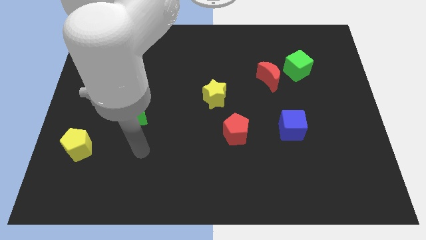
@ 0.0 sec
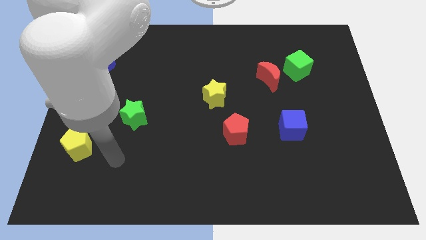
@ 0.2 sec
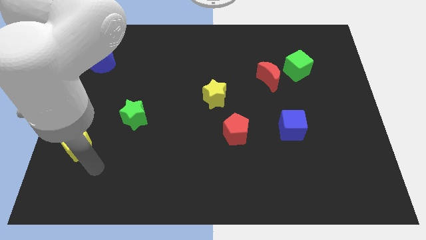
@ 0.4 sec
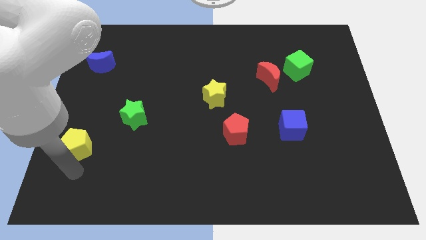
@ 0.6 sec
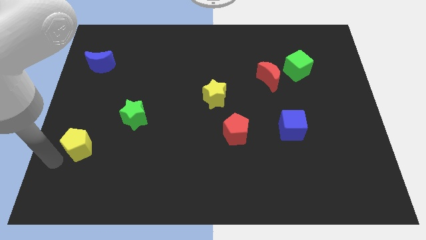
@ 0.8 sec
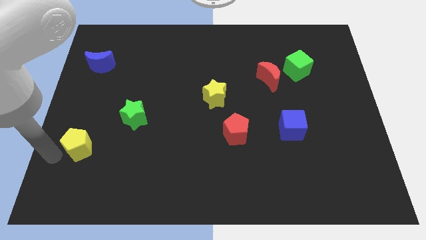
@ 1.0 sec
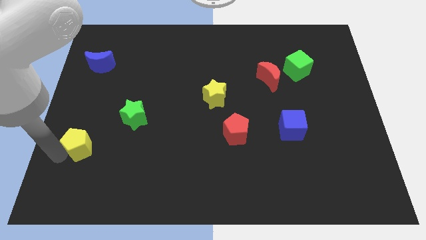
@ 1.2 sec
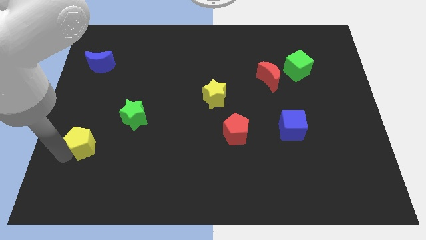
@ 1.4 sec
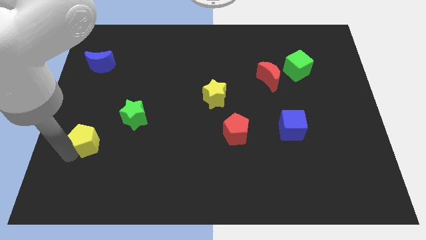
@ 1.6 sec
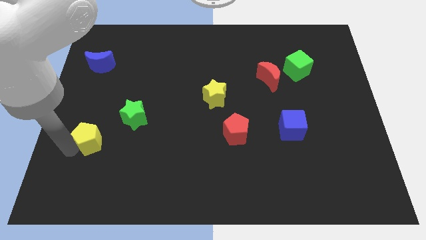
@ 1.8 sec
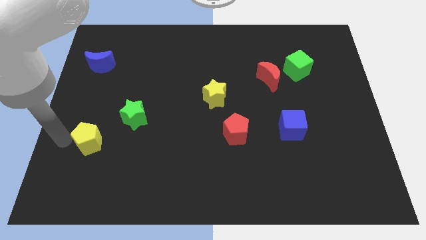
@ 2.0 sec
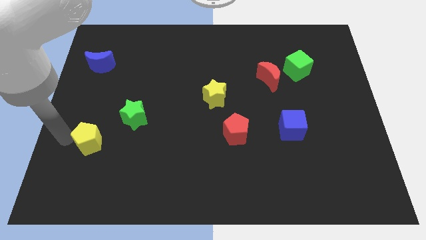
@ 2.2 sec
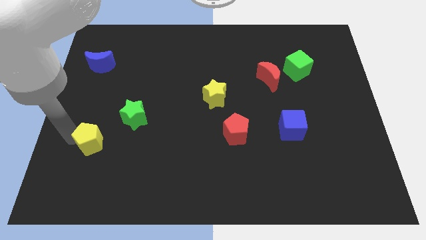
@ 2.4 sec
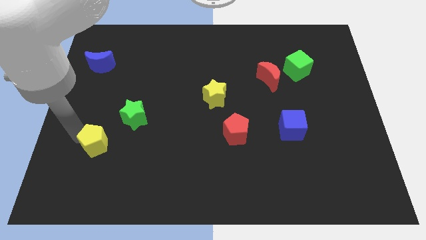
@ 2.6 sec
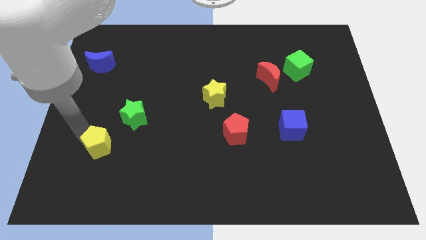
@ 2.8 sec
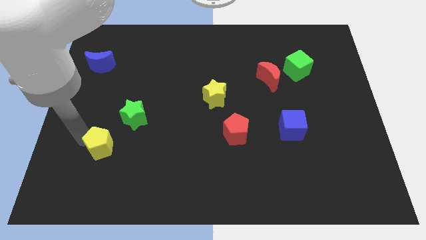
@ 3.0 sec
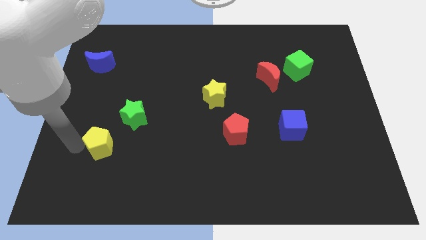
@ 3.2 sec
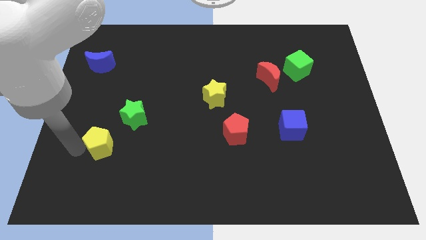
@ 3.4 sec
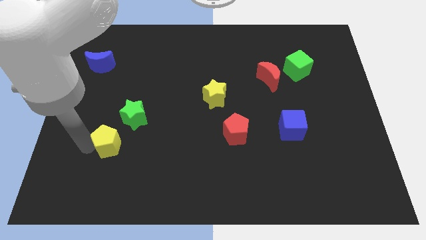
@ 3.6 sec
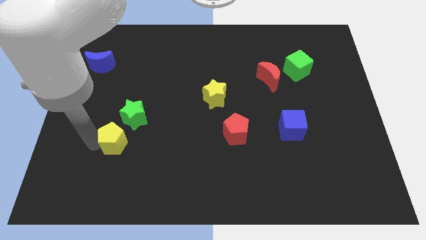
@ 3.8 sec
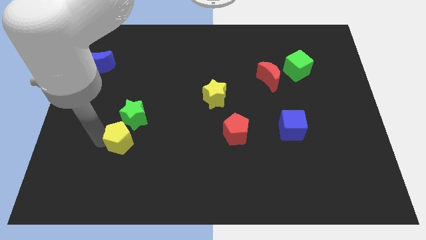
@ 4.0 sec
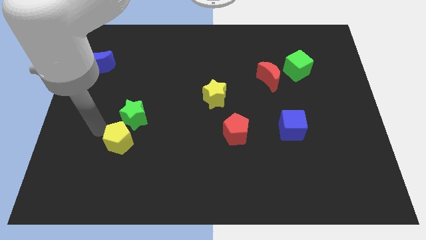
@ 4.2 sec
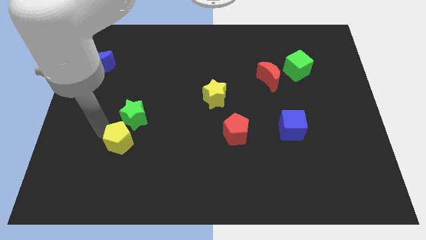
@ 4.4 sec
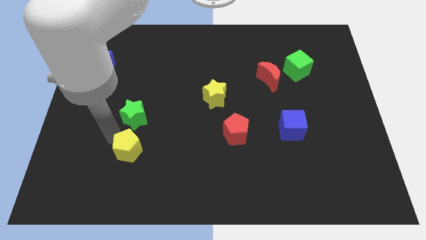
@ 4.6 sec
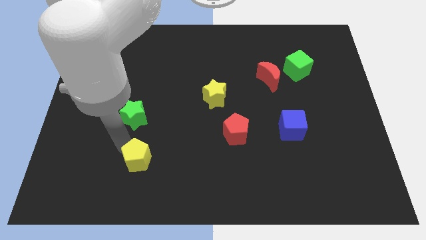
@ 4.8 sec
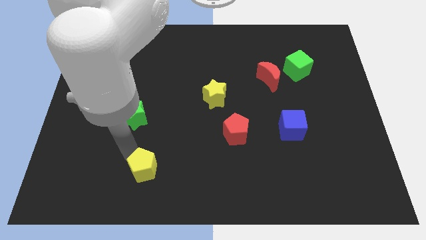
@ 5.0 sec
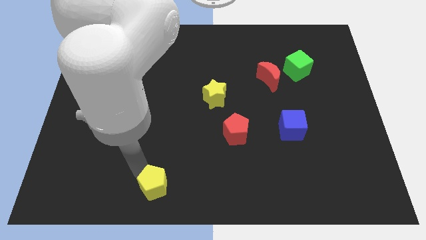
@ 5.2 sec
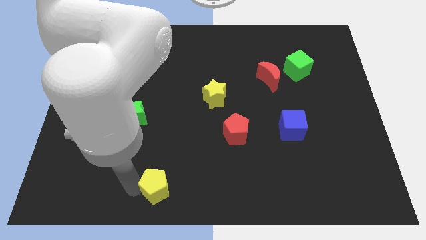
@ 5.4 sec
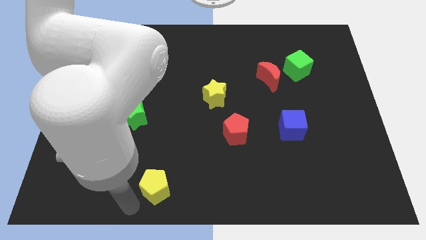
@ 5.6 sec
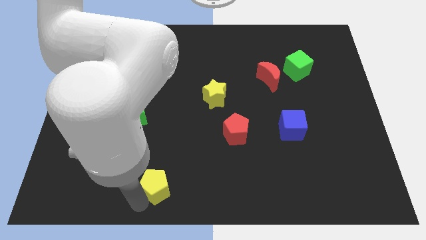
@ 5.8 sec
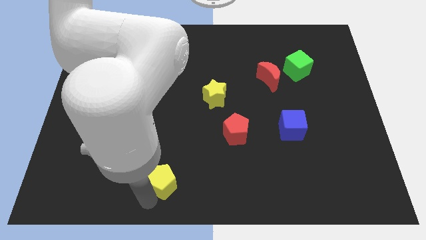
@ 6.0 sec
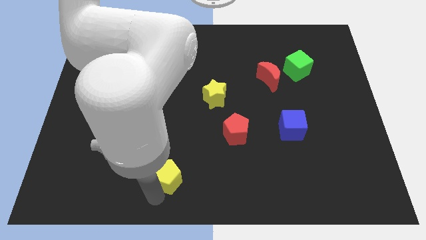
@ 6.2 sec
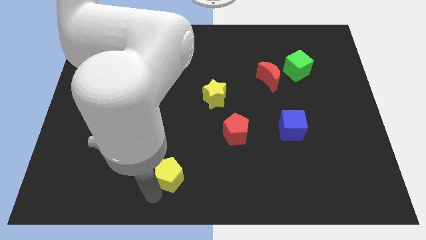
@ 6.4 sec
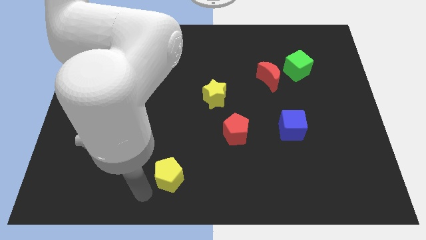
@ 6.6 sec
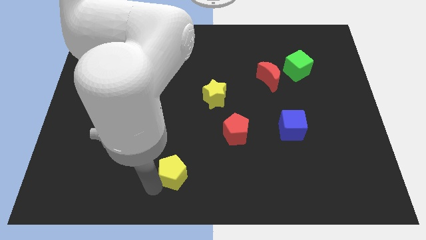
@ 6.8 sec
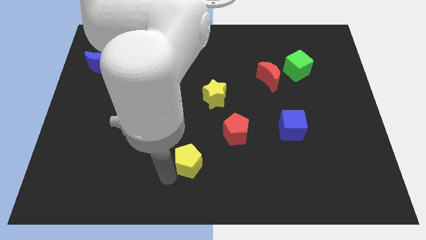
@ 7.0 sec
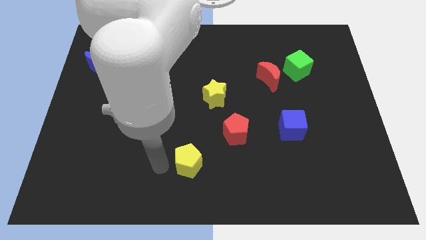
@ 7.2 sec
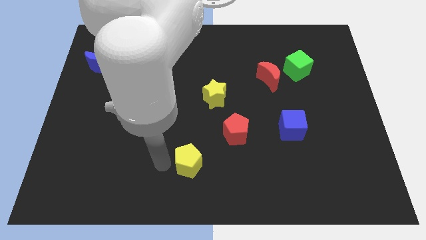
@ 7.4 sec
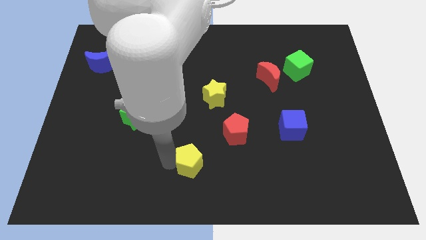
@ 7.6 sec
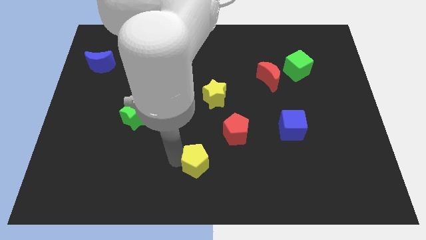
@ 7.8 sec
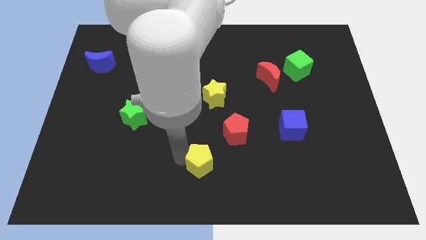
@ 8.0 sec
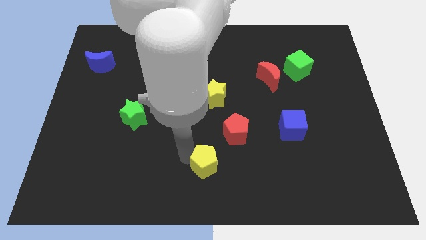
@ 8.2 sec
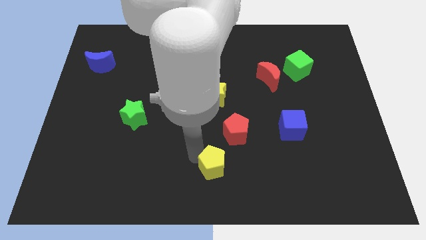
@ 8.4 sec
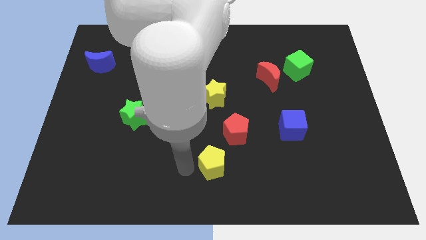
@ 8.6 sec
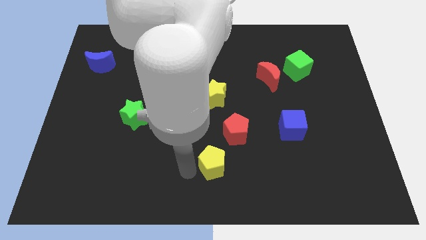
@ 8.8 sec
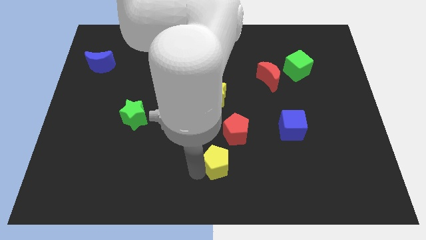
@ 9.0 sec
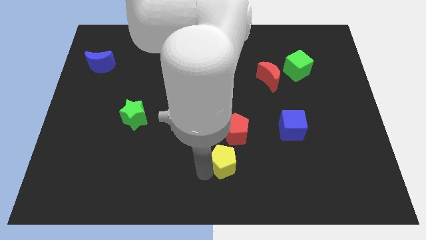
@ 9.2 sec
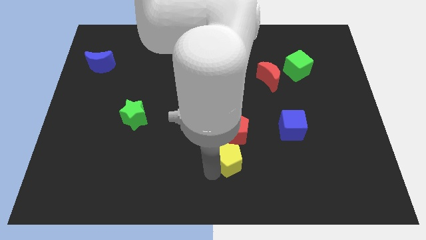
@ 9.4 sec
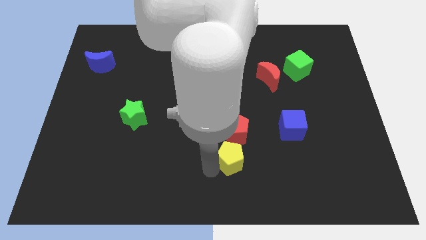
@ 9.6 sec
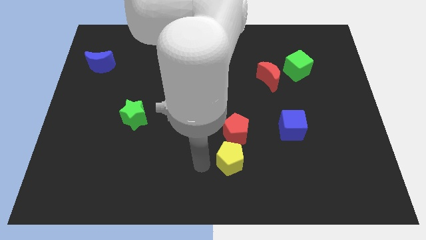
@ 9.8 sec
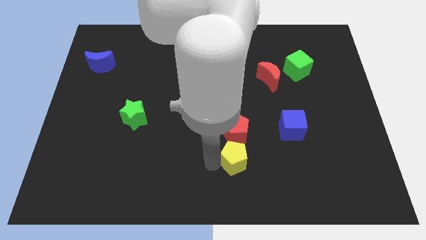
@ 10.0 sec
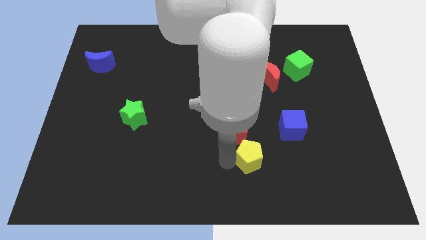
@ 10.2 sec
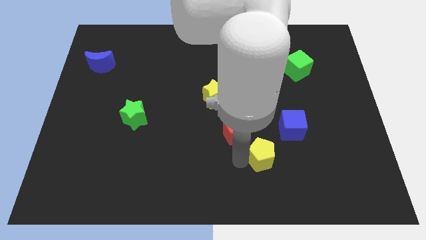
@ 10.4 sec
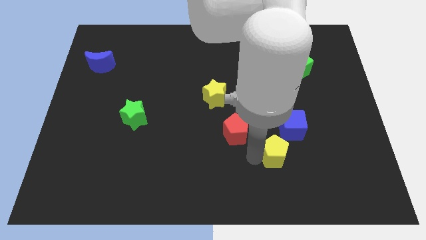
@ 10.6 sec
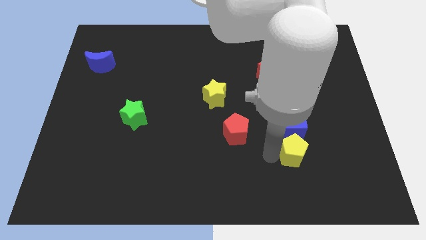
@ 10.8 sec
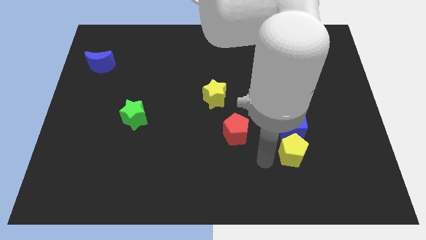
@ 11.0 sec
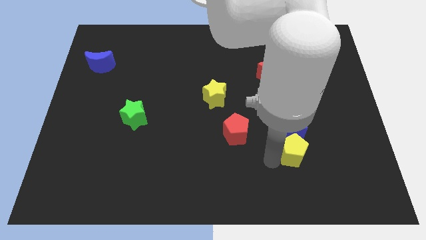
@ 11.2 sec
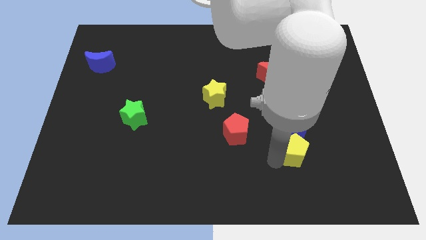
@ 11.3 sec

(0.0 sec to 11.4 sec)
move the yellow pentagon to the bottom right side of the blue cube
